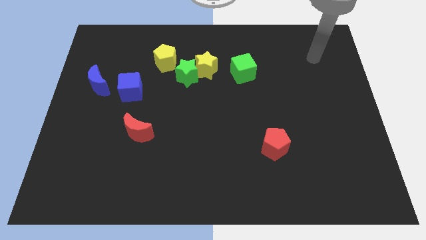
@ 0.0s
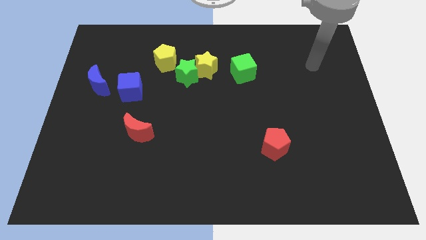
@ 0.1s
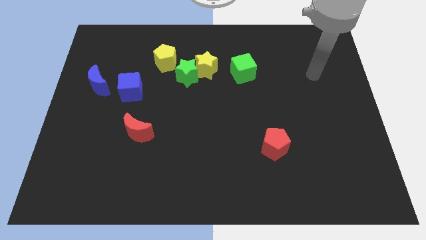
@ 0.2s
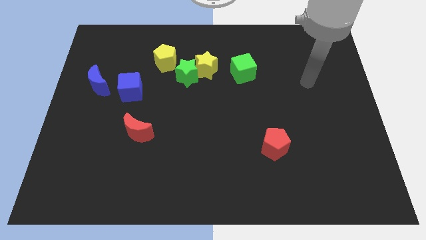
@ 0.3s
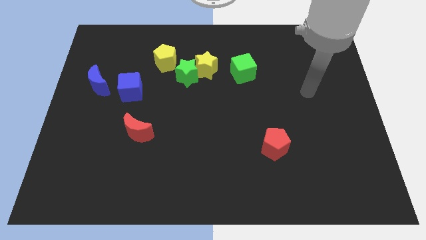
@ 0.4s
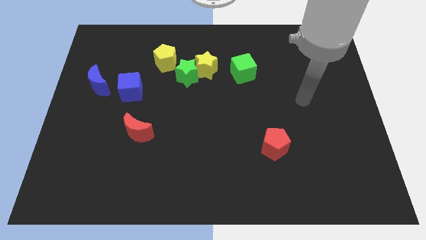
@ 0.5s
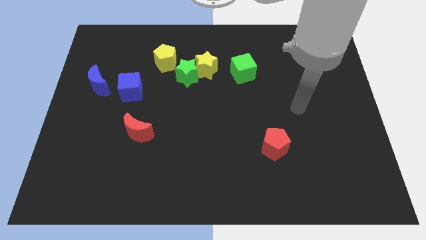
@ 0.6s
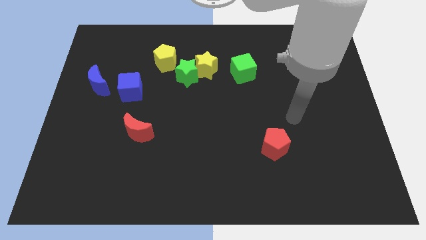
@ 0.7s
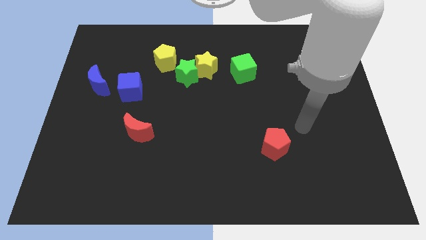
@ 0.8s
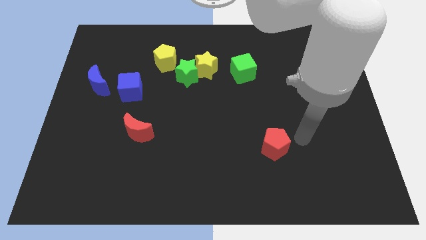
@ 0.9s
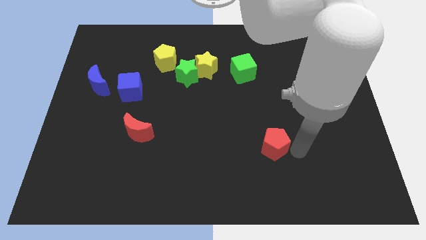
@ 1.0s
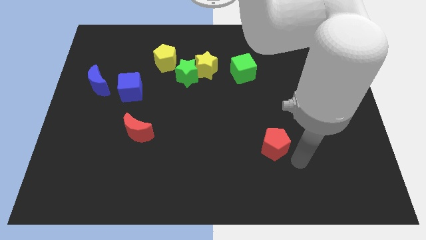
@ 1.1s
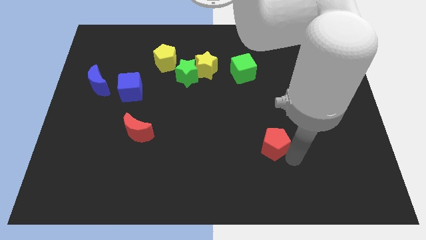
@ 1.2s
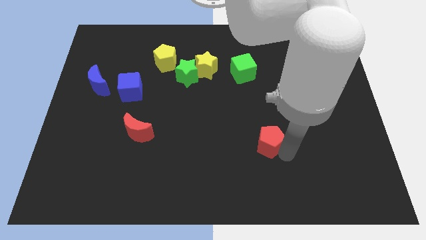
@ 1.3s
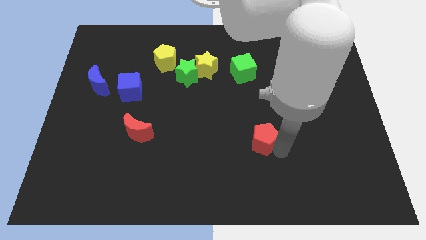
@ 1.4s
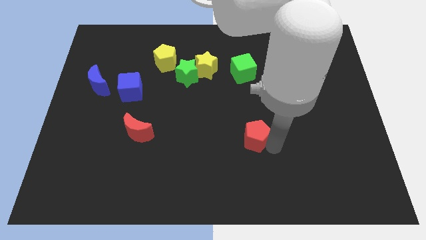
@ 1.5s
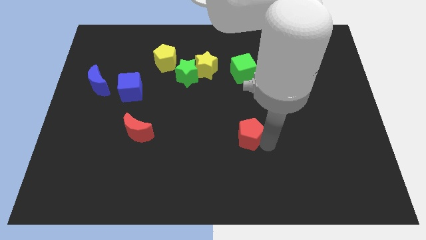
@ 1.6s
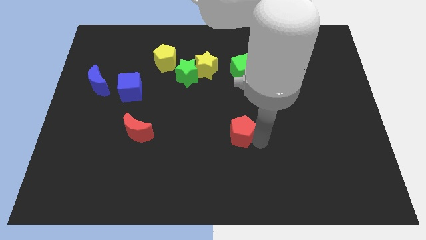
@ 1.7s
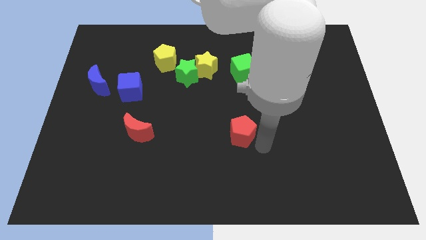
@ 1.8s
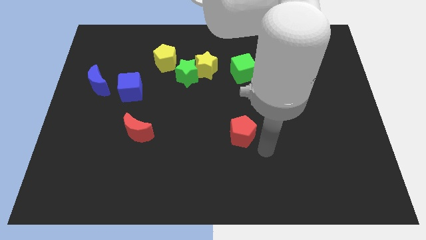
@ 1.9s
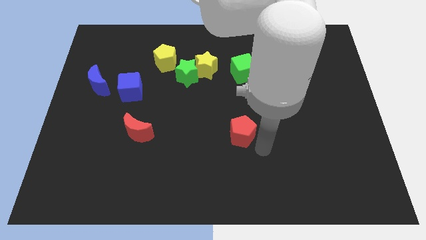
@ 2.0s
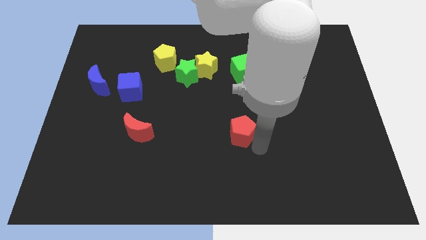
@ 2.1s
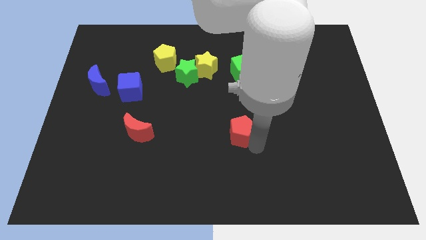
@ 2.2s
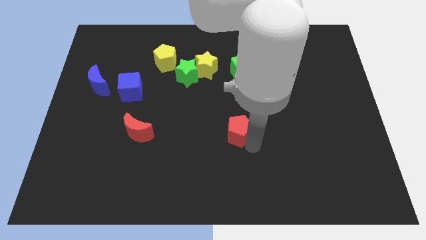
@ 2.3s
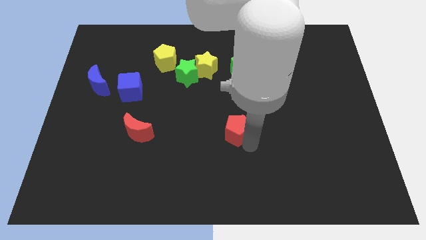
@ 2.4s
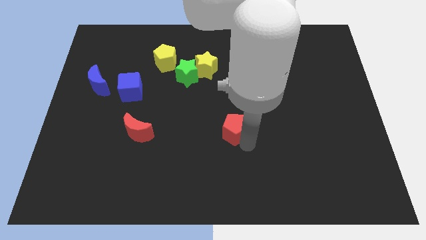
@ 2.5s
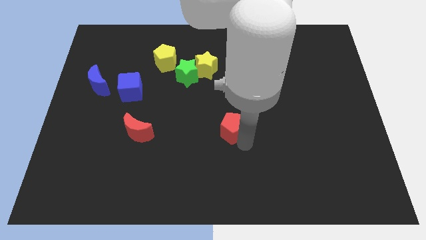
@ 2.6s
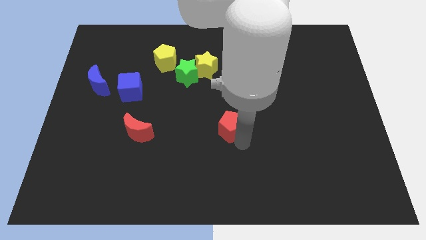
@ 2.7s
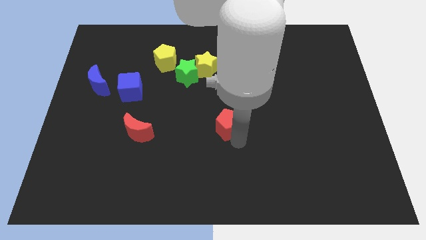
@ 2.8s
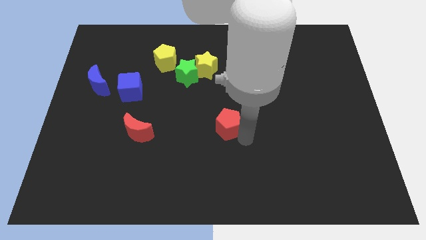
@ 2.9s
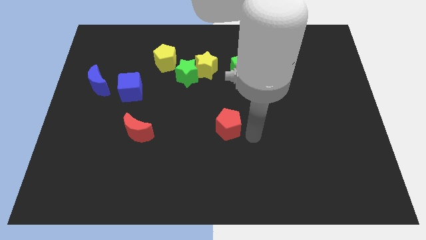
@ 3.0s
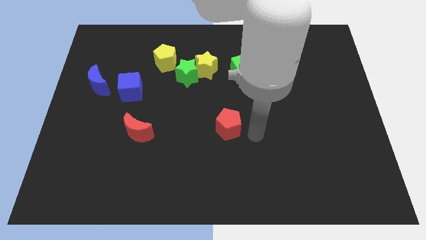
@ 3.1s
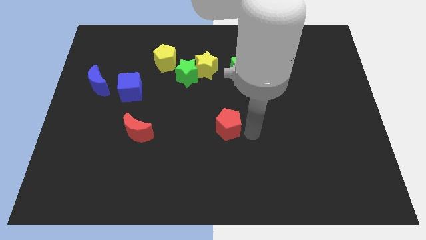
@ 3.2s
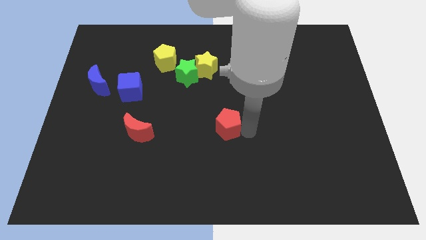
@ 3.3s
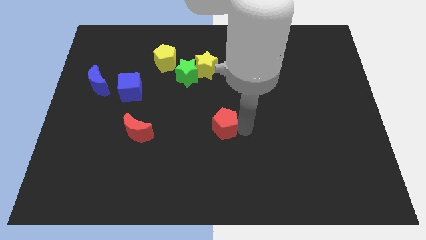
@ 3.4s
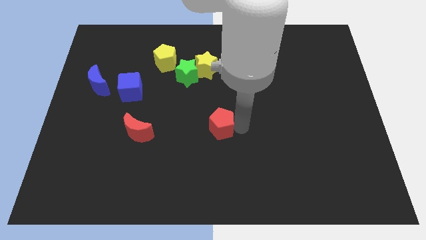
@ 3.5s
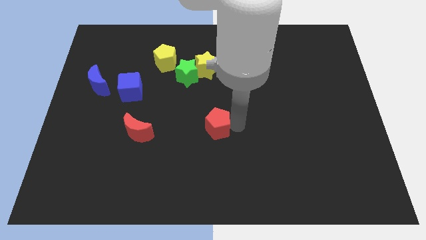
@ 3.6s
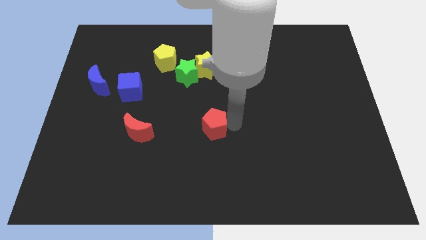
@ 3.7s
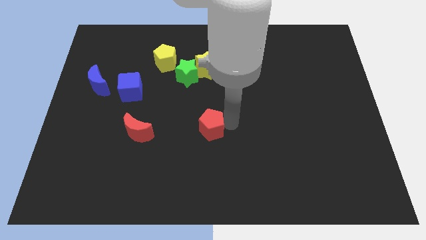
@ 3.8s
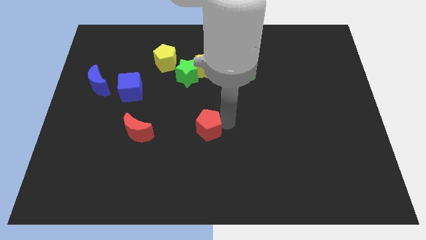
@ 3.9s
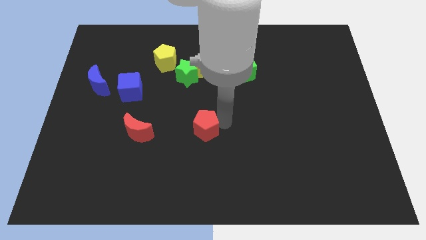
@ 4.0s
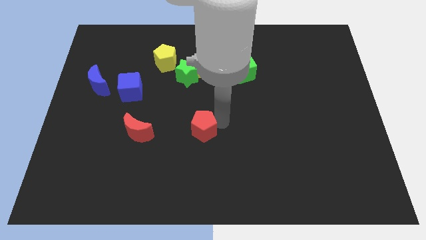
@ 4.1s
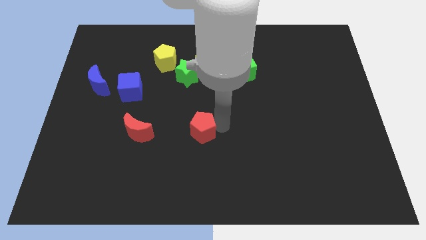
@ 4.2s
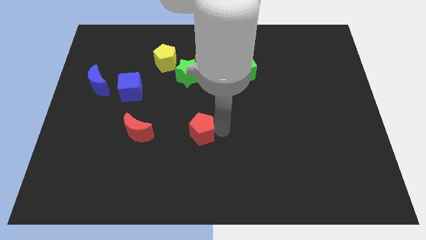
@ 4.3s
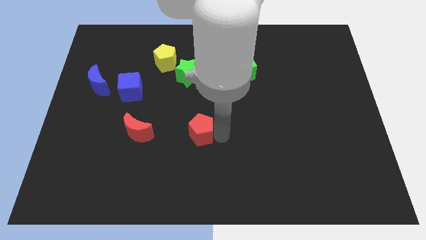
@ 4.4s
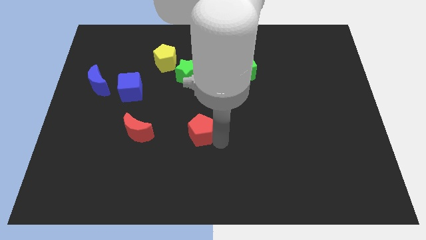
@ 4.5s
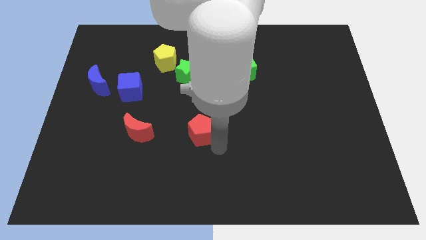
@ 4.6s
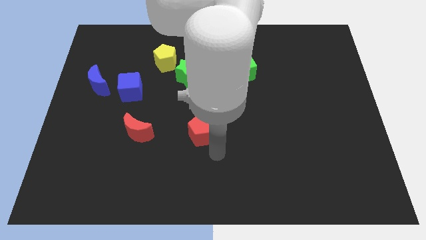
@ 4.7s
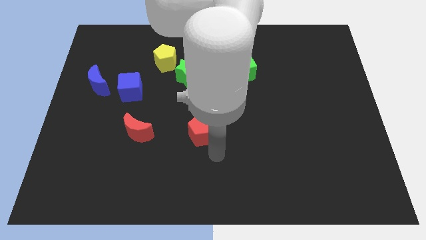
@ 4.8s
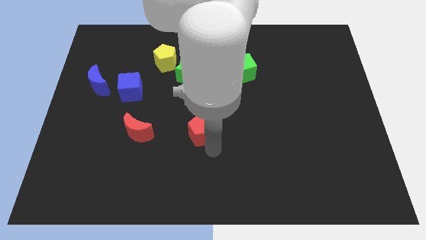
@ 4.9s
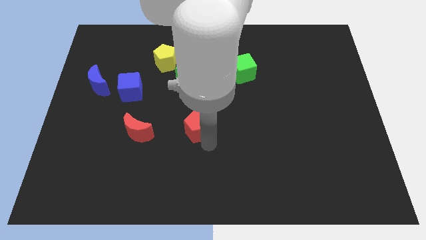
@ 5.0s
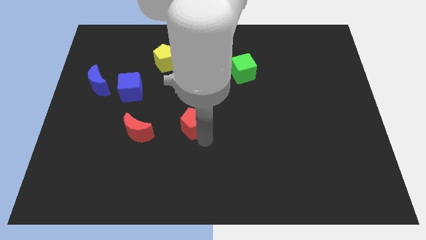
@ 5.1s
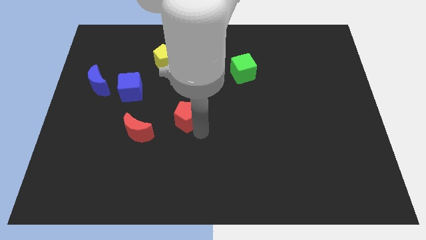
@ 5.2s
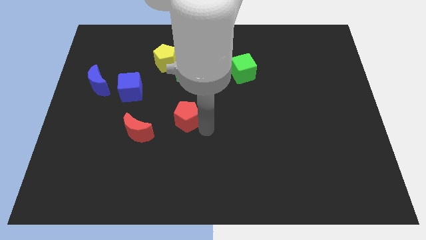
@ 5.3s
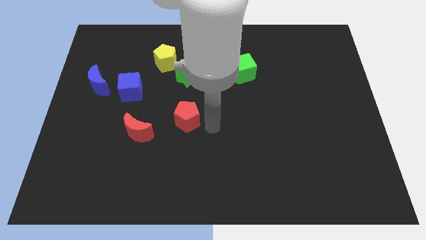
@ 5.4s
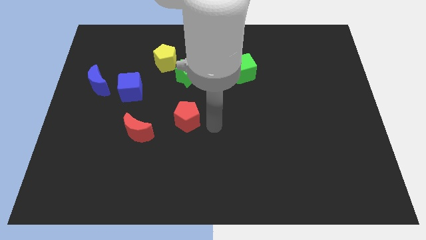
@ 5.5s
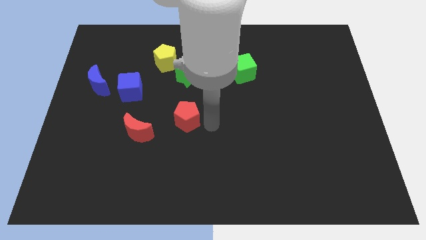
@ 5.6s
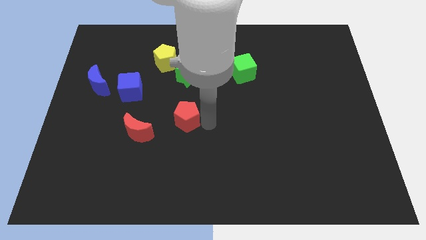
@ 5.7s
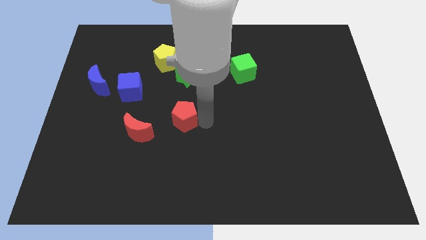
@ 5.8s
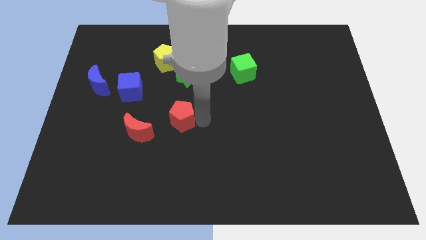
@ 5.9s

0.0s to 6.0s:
move the red pentagon to the top right of the red moon

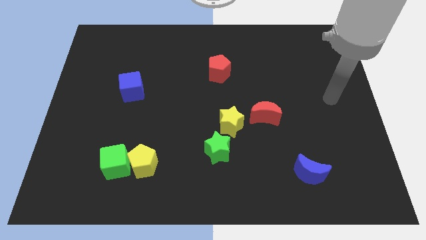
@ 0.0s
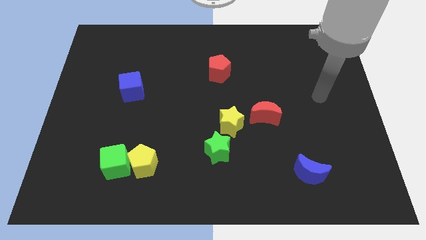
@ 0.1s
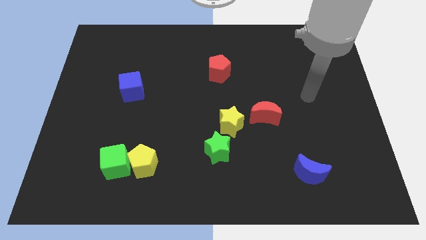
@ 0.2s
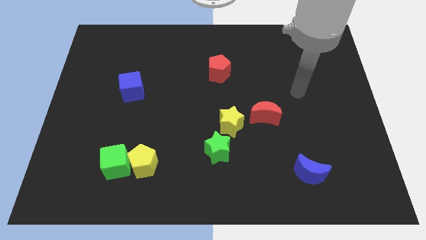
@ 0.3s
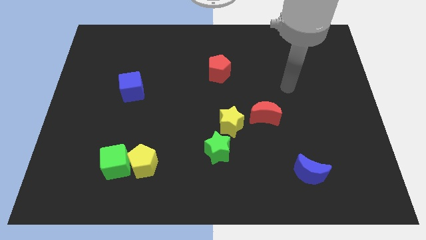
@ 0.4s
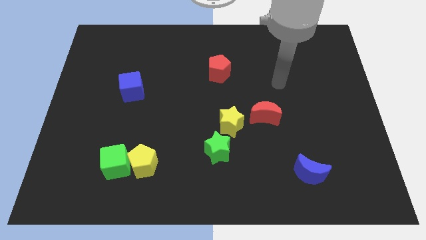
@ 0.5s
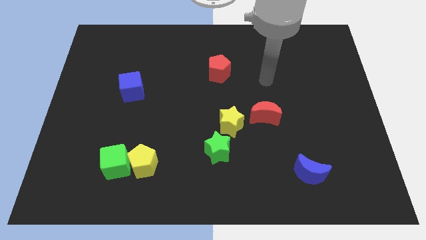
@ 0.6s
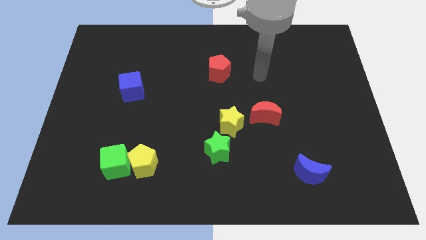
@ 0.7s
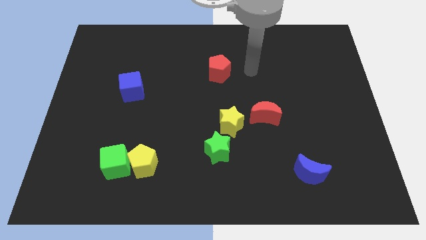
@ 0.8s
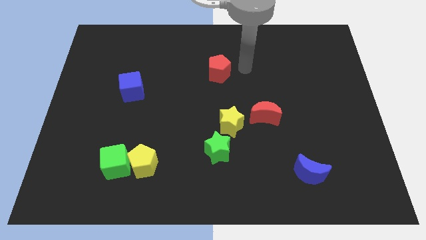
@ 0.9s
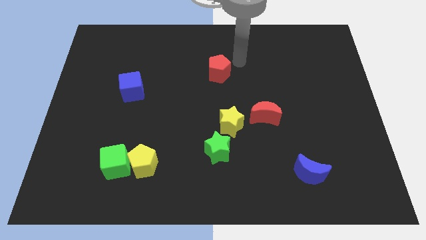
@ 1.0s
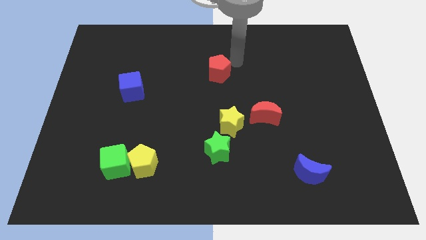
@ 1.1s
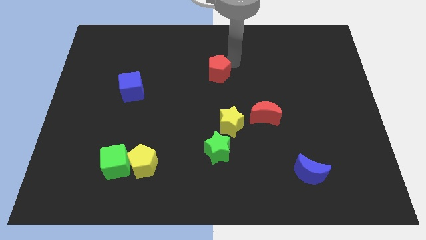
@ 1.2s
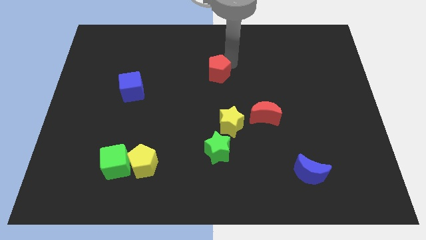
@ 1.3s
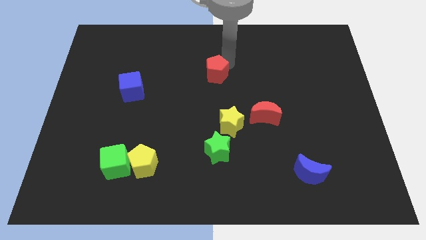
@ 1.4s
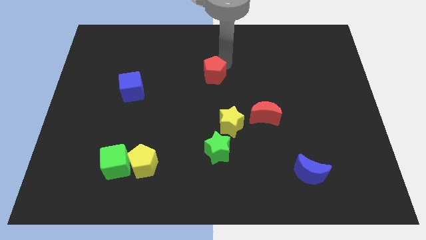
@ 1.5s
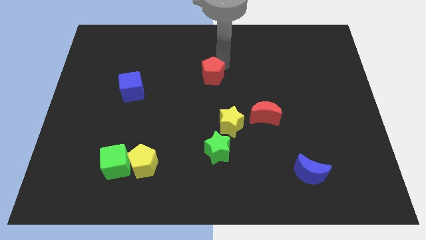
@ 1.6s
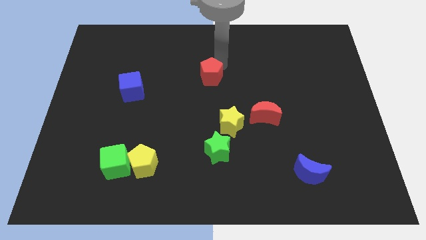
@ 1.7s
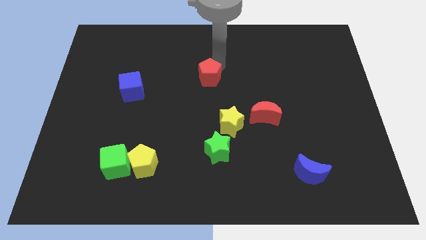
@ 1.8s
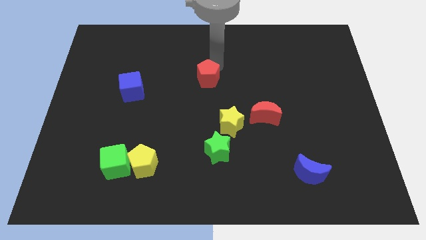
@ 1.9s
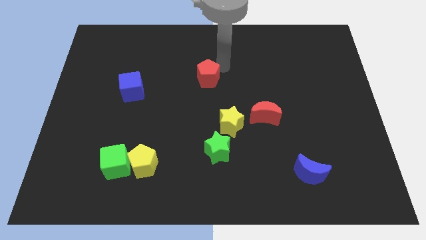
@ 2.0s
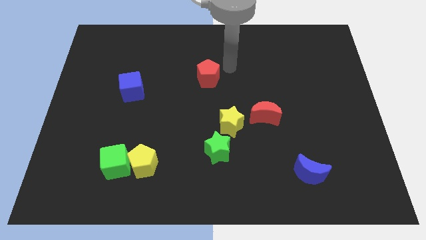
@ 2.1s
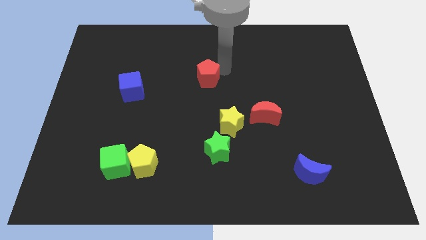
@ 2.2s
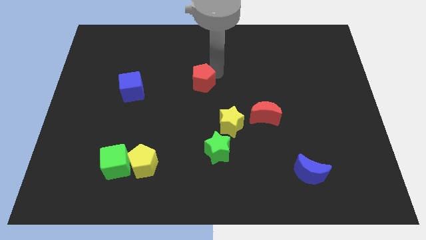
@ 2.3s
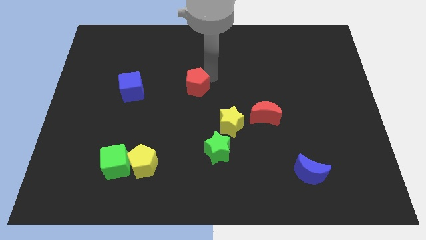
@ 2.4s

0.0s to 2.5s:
push the red pentagon to the right side of the blue cube
